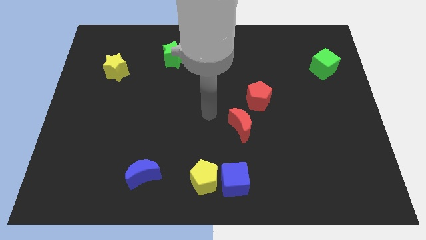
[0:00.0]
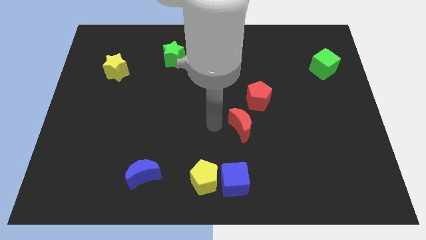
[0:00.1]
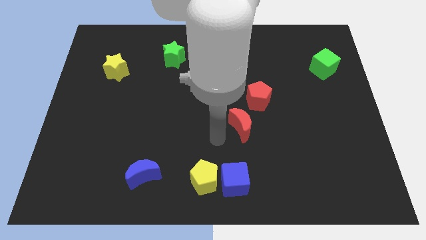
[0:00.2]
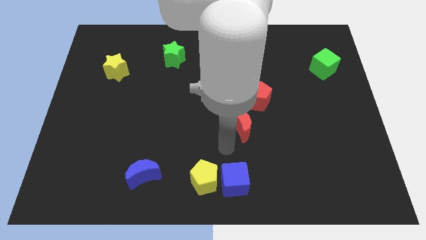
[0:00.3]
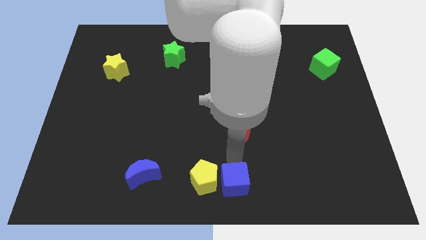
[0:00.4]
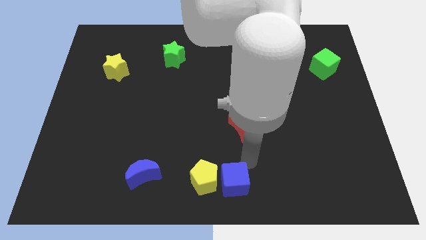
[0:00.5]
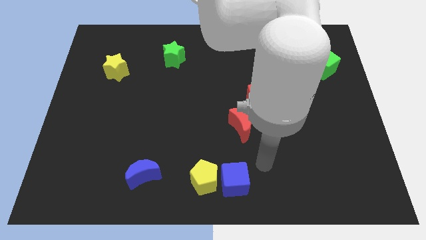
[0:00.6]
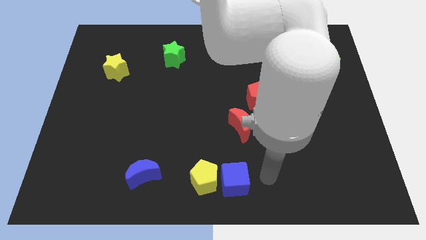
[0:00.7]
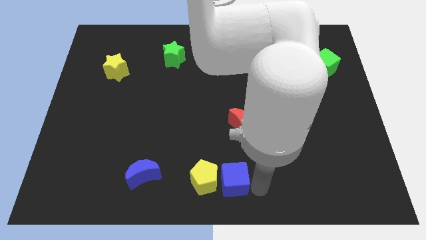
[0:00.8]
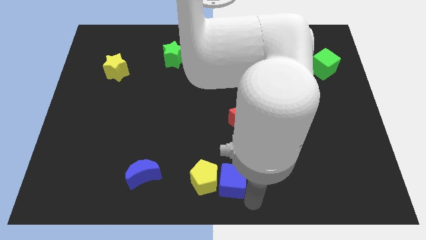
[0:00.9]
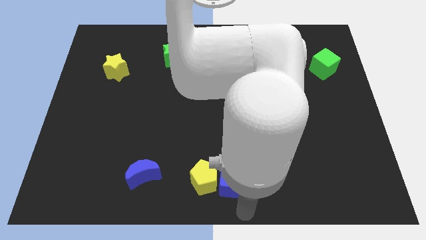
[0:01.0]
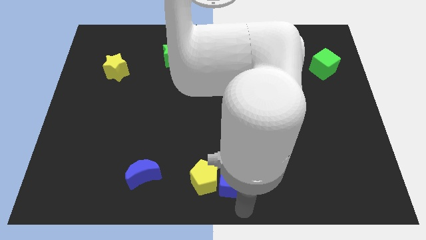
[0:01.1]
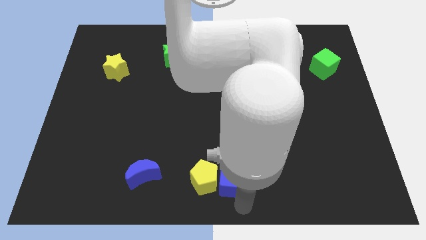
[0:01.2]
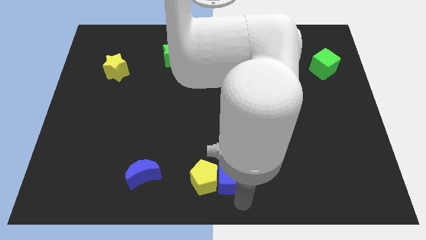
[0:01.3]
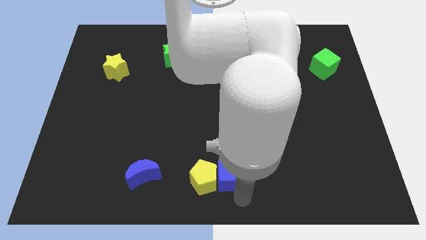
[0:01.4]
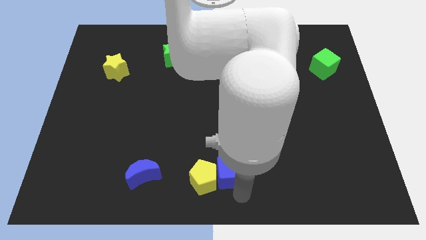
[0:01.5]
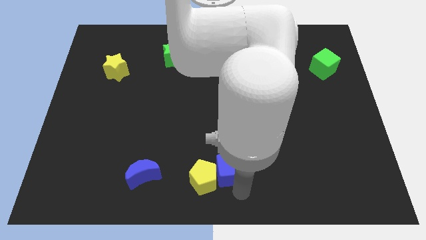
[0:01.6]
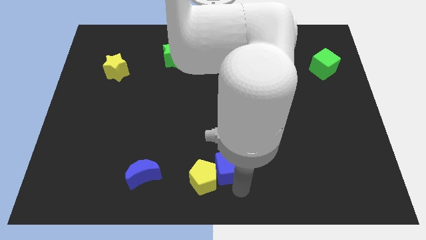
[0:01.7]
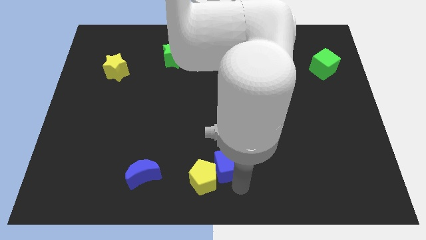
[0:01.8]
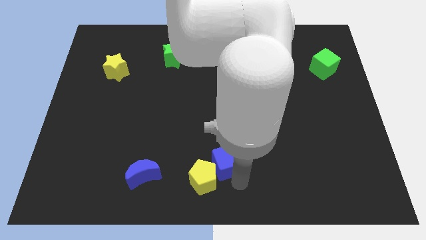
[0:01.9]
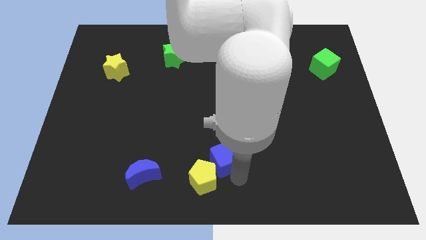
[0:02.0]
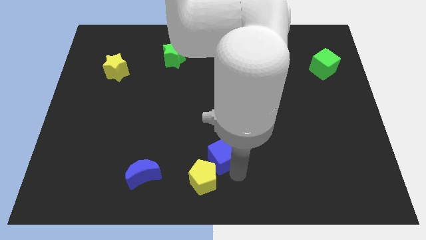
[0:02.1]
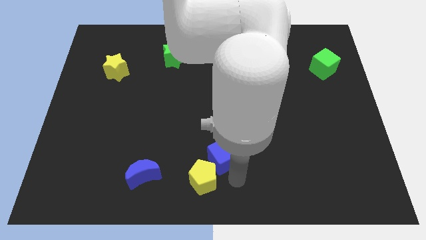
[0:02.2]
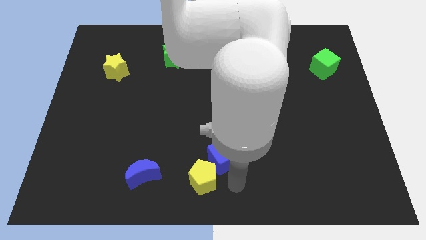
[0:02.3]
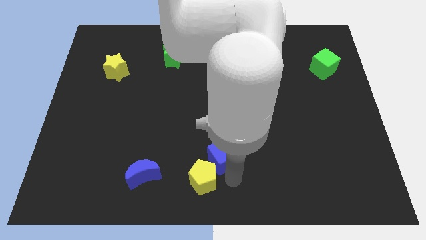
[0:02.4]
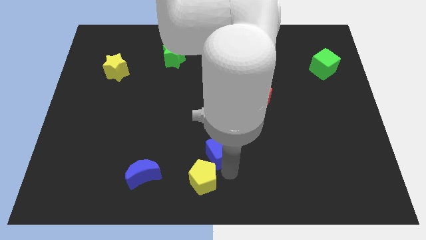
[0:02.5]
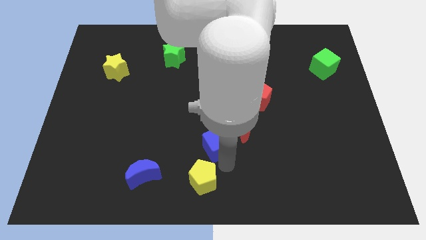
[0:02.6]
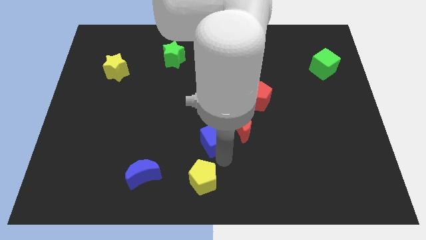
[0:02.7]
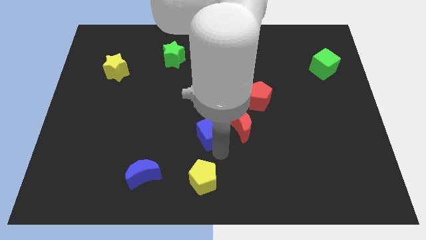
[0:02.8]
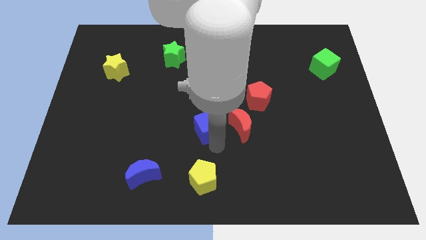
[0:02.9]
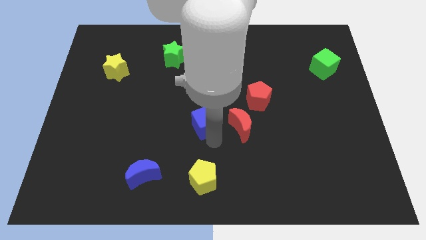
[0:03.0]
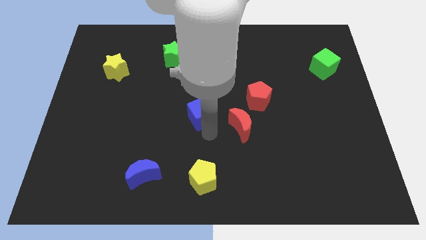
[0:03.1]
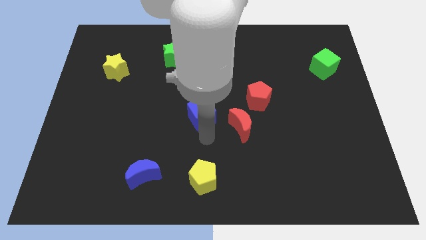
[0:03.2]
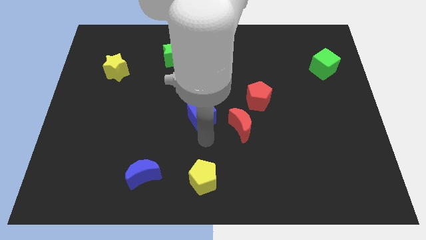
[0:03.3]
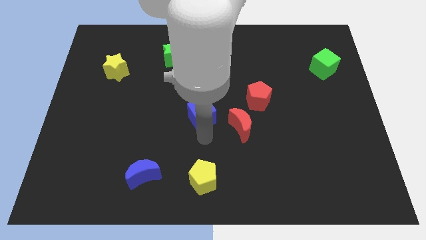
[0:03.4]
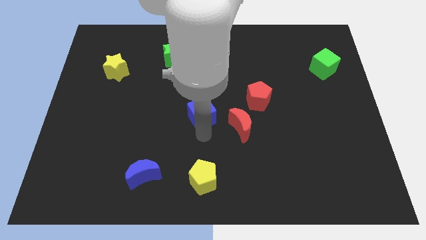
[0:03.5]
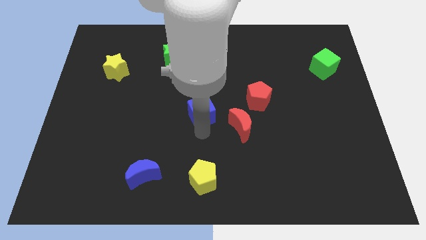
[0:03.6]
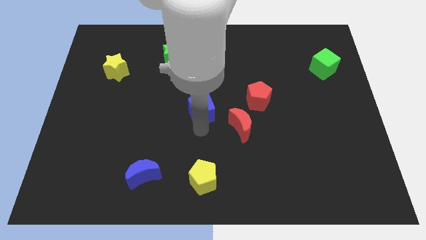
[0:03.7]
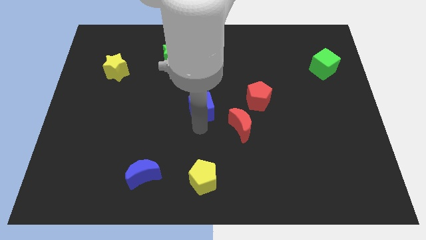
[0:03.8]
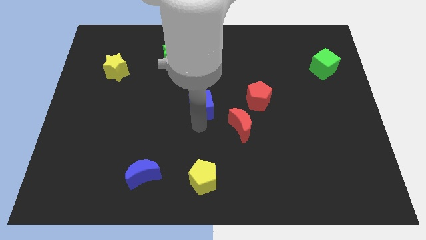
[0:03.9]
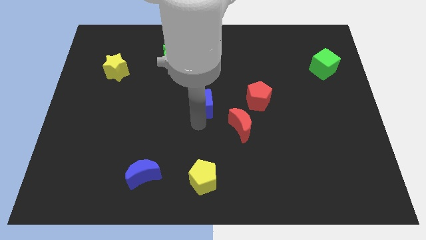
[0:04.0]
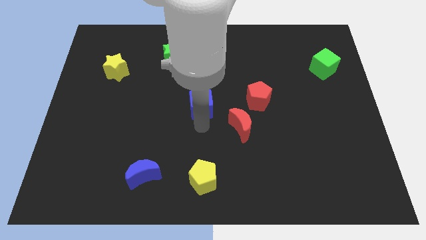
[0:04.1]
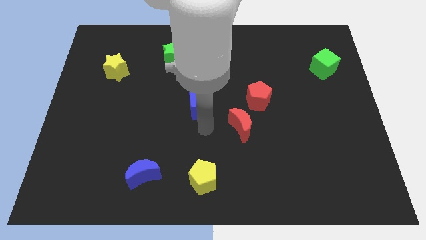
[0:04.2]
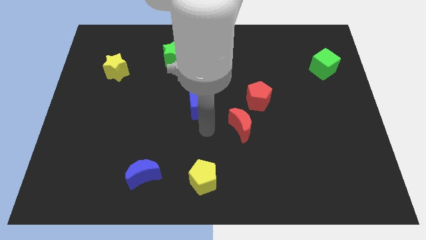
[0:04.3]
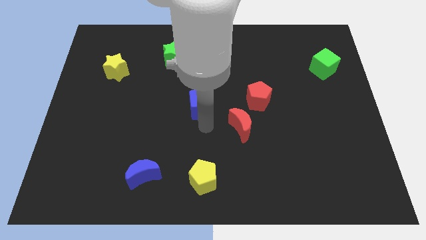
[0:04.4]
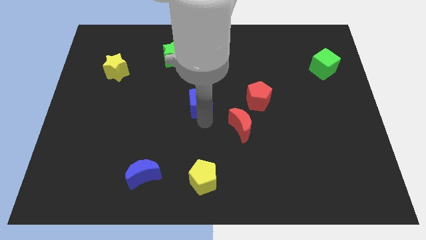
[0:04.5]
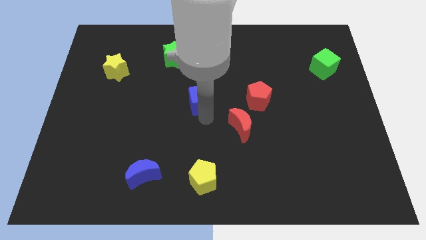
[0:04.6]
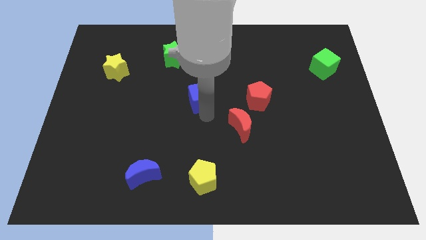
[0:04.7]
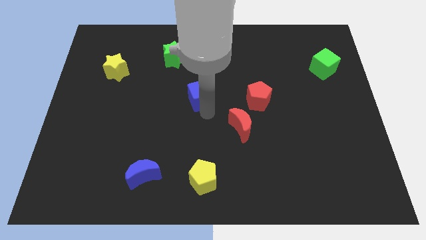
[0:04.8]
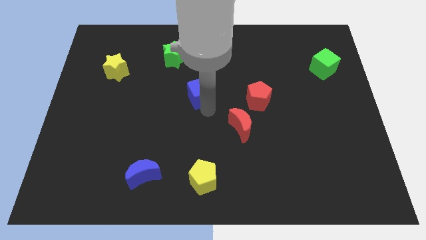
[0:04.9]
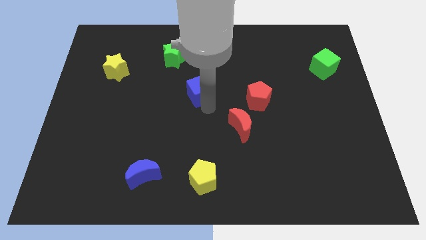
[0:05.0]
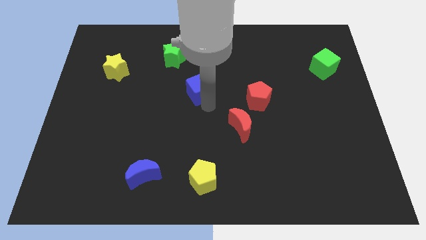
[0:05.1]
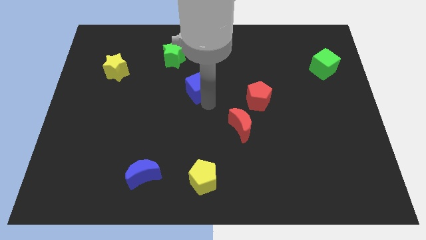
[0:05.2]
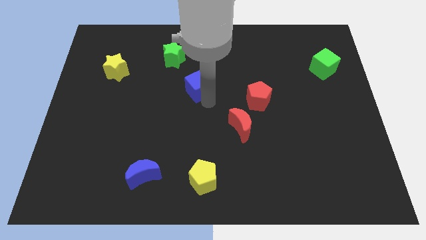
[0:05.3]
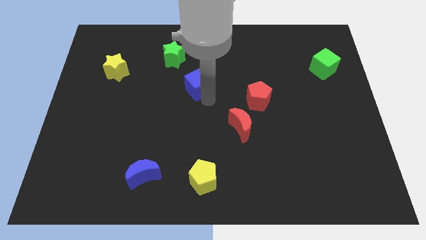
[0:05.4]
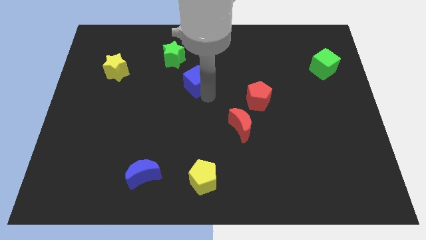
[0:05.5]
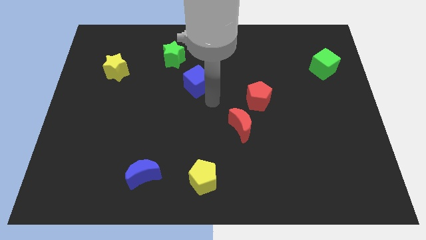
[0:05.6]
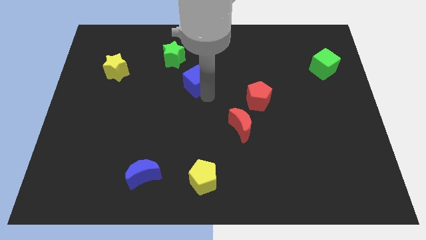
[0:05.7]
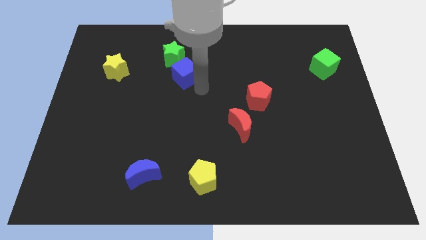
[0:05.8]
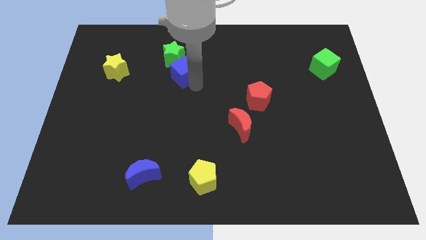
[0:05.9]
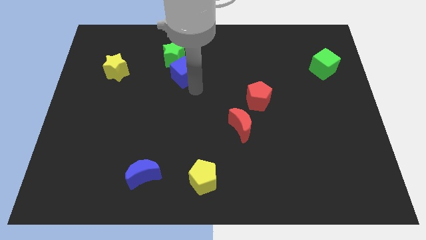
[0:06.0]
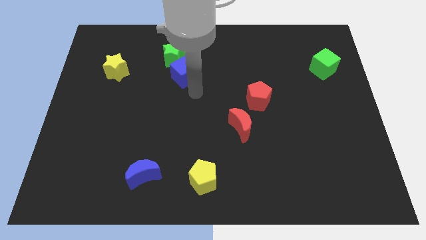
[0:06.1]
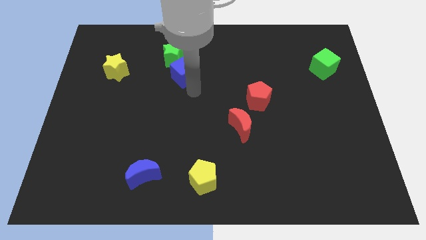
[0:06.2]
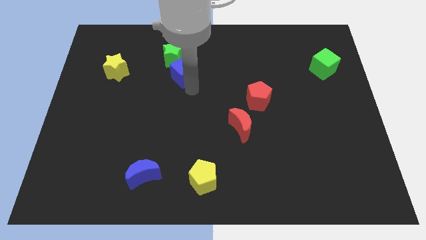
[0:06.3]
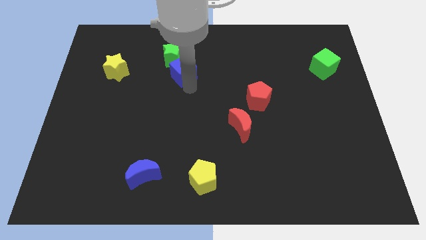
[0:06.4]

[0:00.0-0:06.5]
slide the blue cube close to the green star
